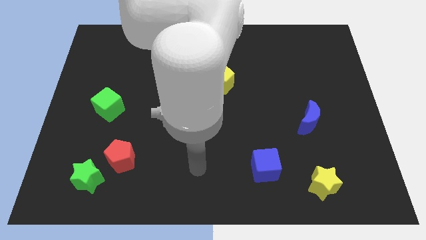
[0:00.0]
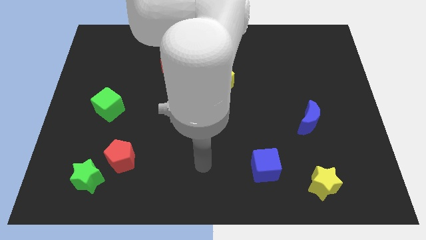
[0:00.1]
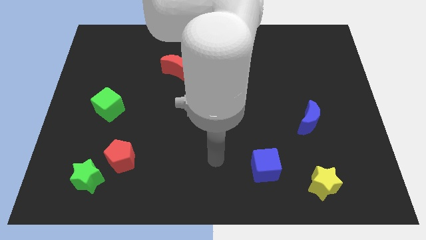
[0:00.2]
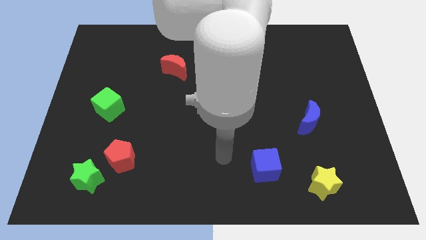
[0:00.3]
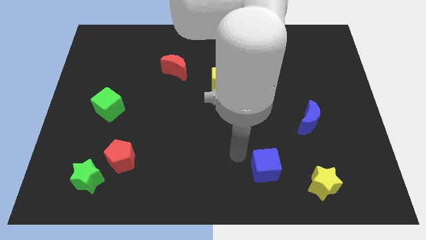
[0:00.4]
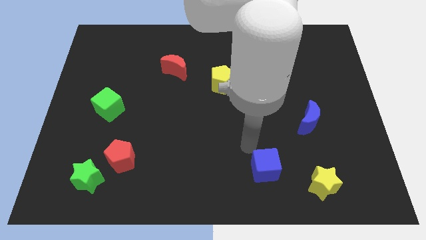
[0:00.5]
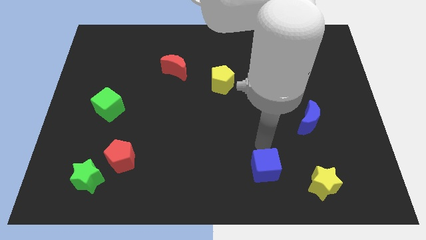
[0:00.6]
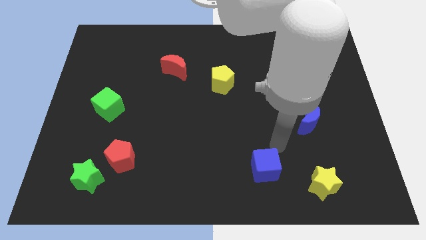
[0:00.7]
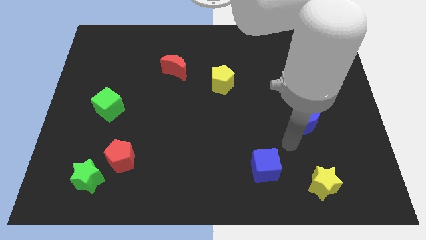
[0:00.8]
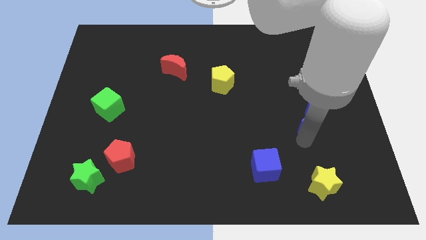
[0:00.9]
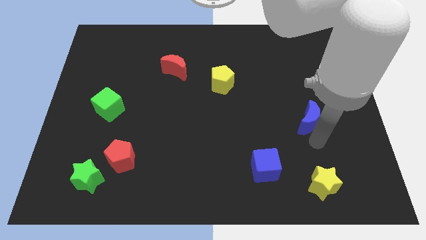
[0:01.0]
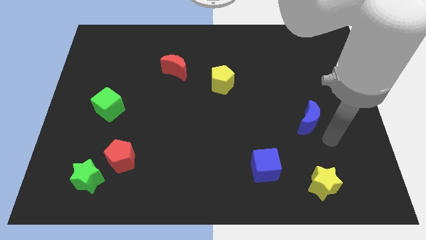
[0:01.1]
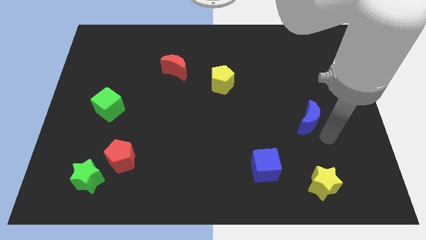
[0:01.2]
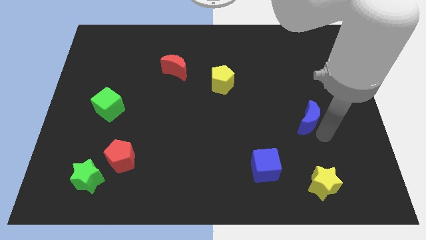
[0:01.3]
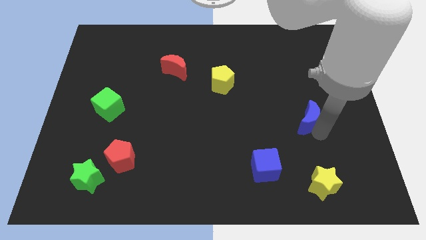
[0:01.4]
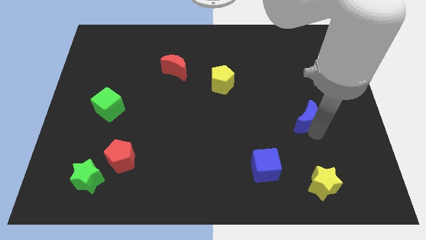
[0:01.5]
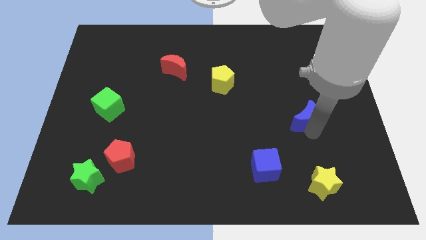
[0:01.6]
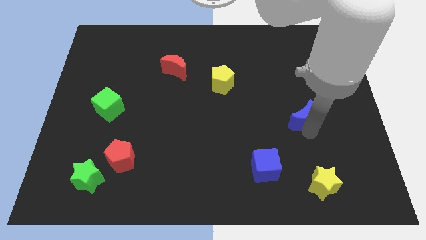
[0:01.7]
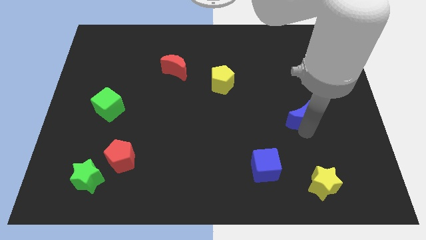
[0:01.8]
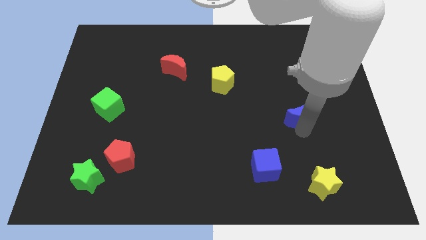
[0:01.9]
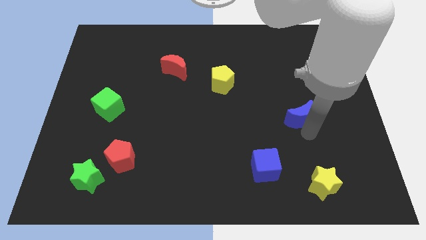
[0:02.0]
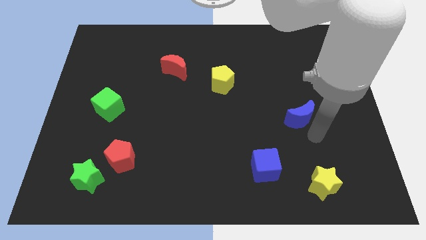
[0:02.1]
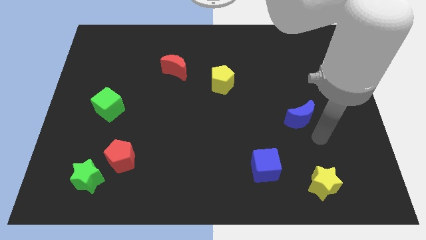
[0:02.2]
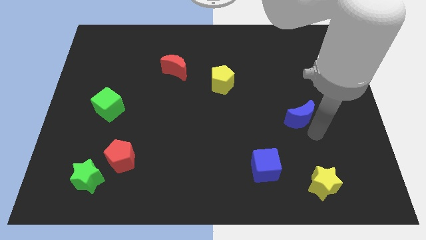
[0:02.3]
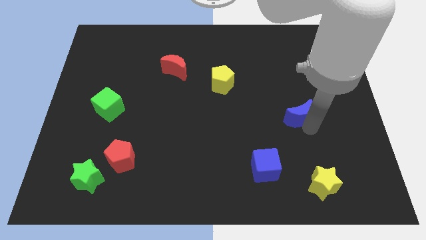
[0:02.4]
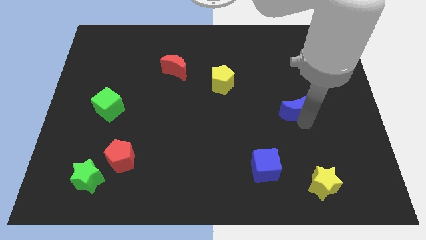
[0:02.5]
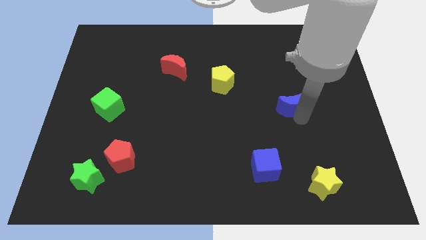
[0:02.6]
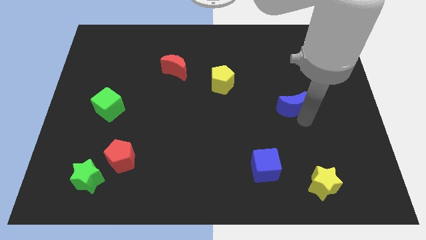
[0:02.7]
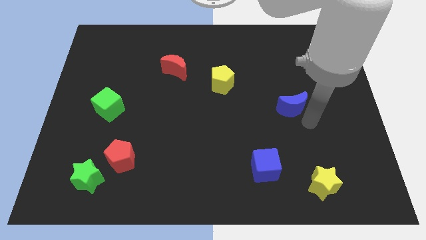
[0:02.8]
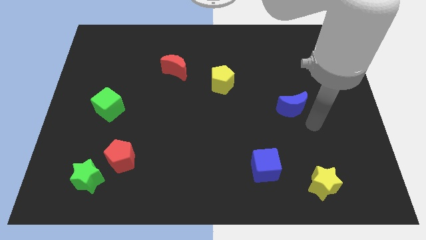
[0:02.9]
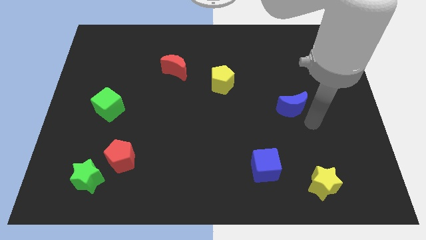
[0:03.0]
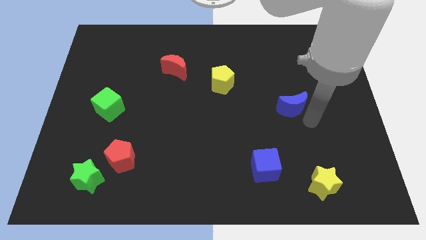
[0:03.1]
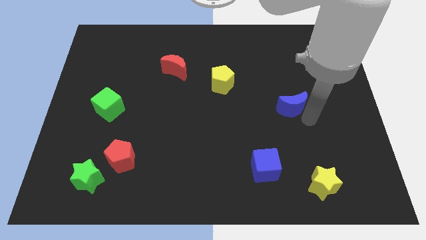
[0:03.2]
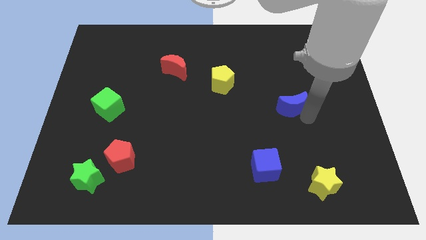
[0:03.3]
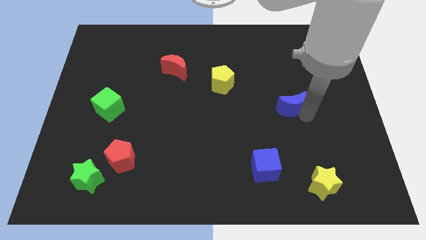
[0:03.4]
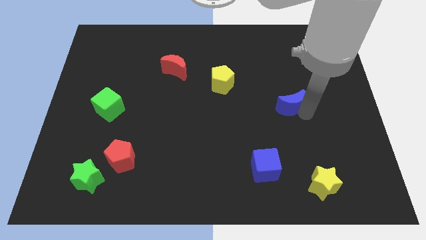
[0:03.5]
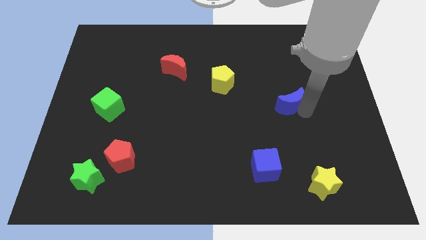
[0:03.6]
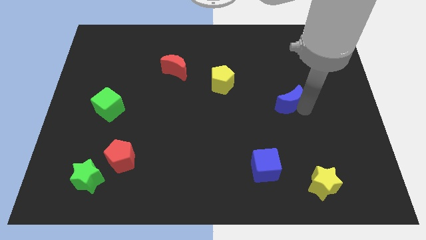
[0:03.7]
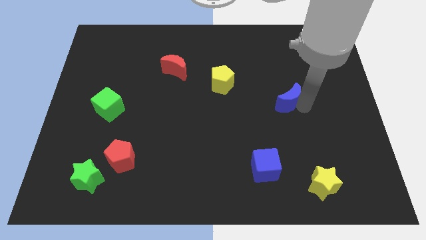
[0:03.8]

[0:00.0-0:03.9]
push the blue moon somewhat up and then left

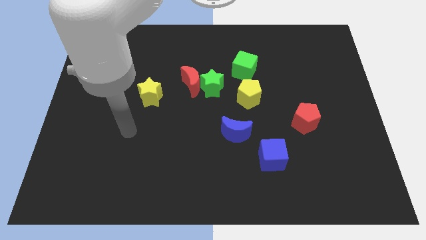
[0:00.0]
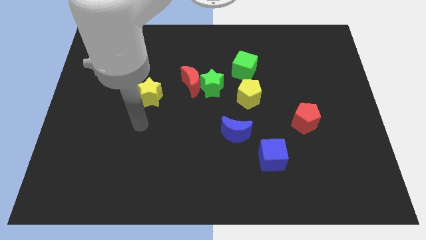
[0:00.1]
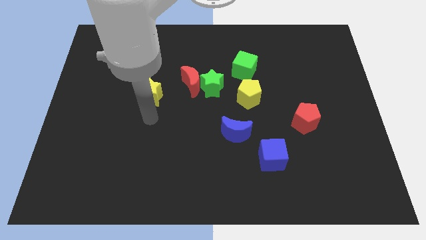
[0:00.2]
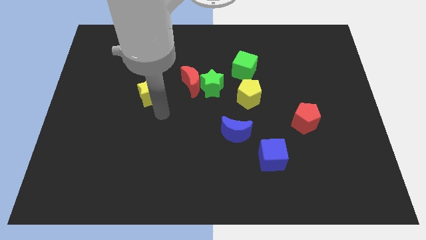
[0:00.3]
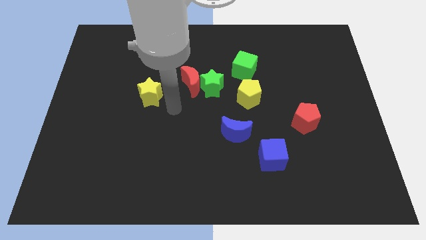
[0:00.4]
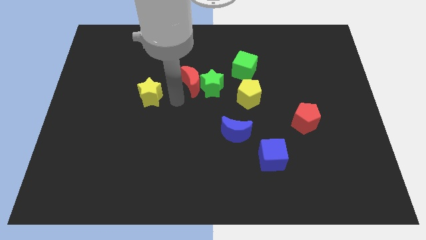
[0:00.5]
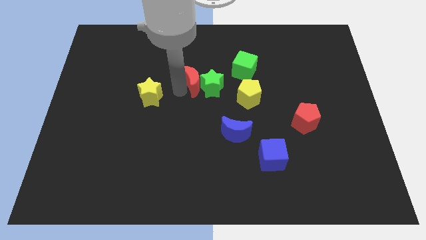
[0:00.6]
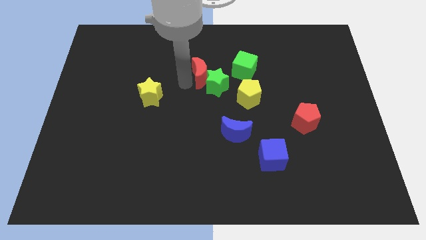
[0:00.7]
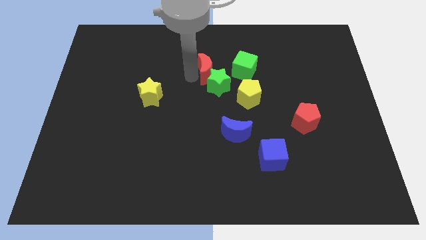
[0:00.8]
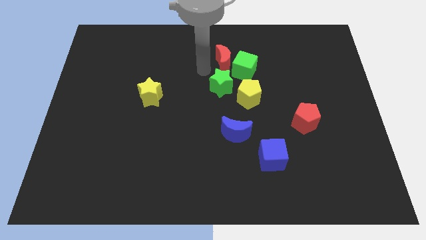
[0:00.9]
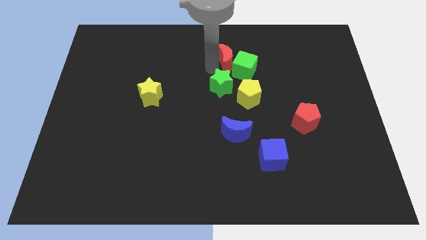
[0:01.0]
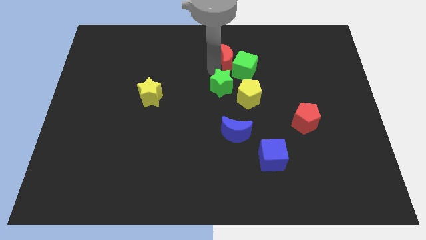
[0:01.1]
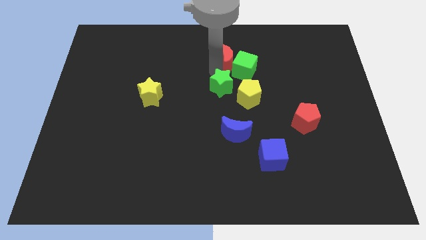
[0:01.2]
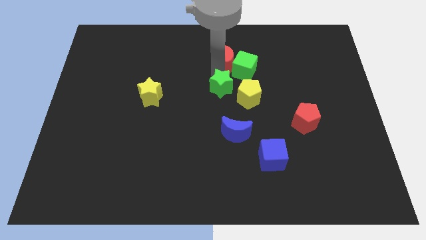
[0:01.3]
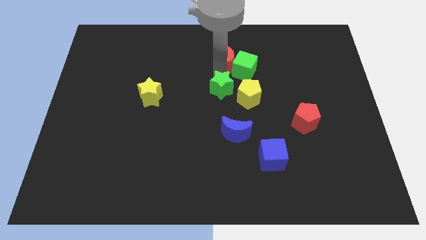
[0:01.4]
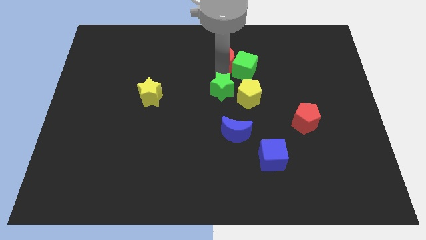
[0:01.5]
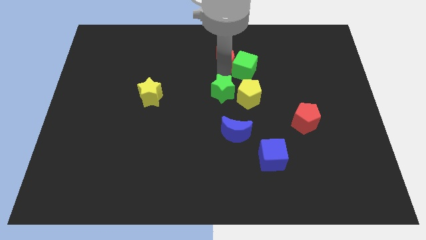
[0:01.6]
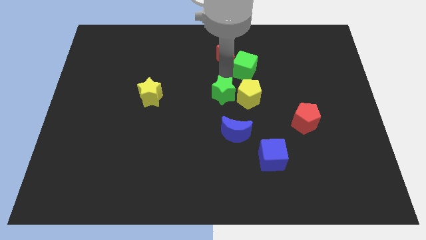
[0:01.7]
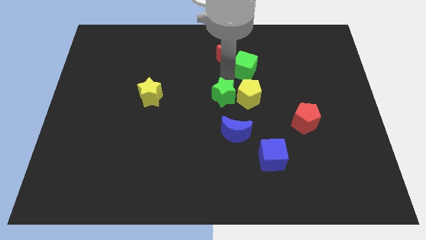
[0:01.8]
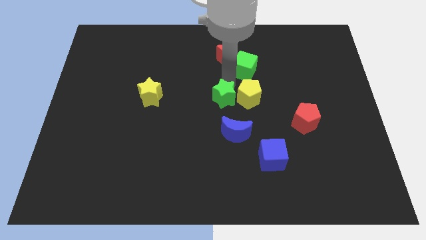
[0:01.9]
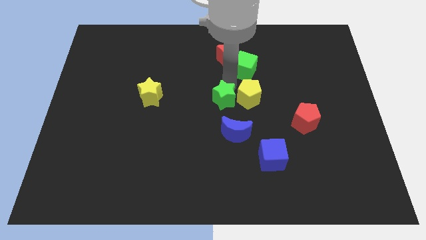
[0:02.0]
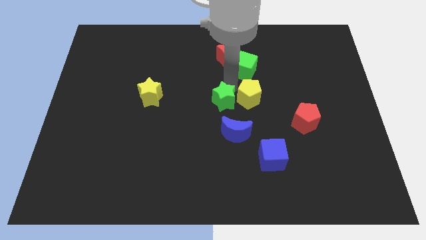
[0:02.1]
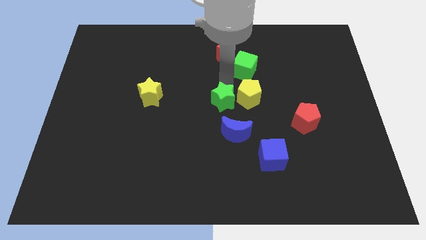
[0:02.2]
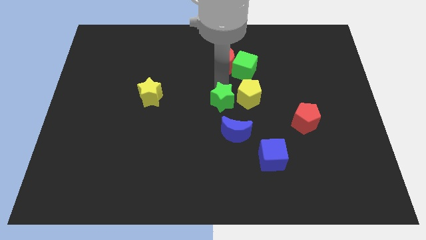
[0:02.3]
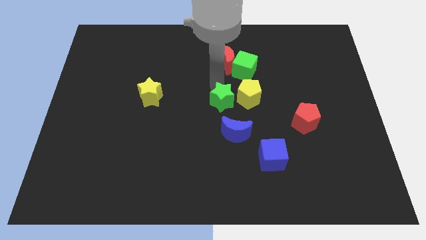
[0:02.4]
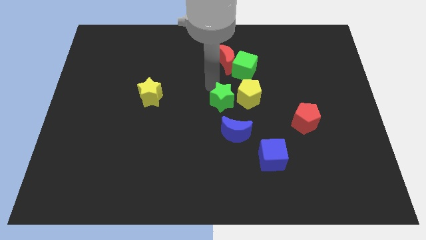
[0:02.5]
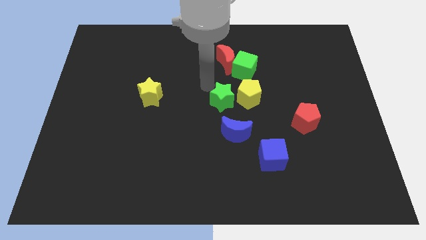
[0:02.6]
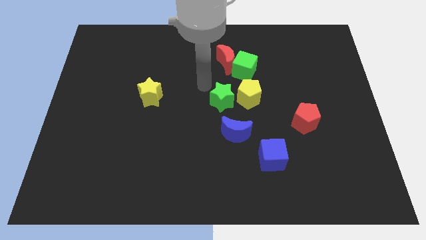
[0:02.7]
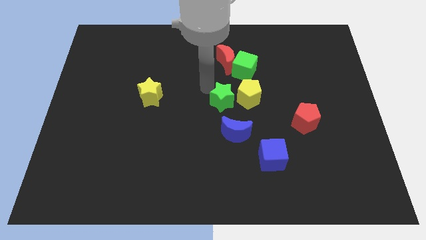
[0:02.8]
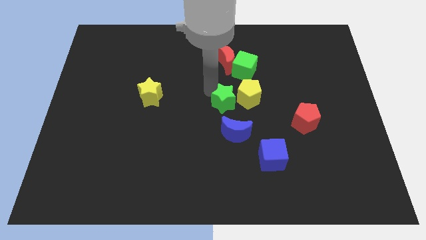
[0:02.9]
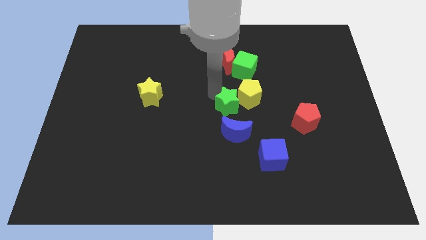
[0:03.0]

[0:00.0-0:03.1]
slightly move the green star diagonally down and to the right

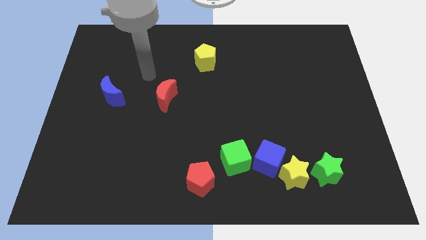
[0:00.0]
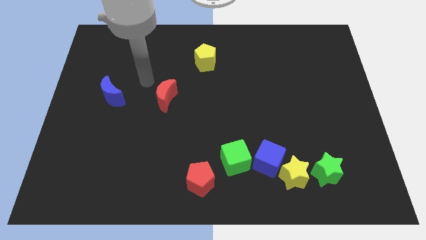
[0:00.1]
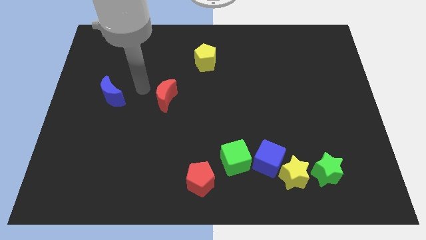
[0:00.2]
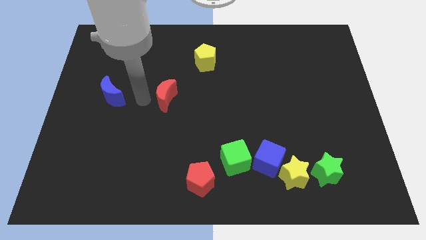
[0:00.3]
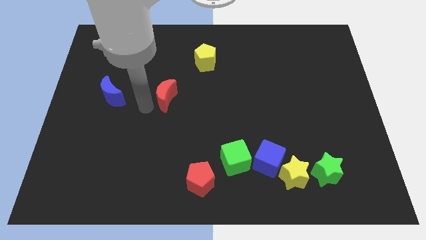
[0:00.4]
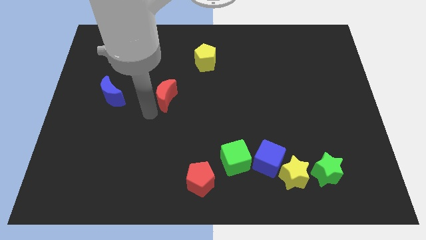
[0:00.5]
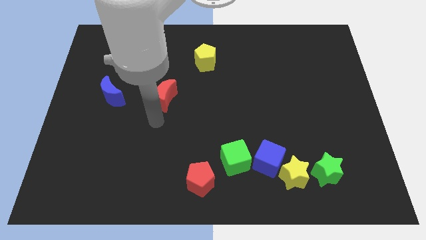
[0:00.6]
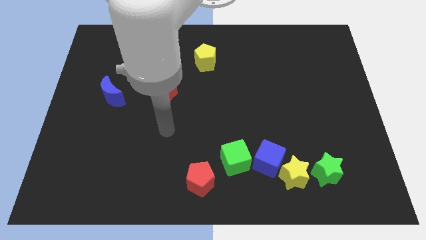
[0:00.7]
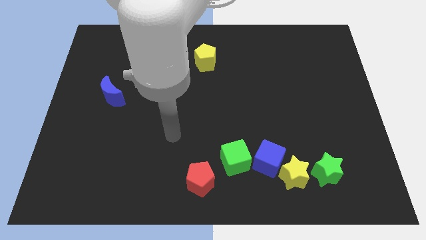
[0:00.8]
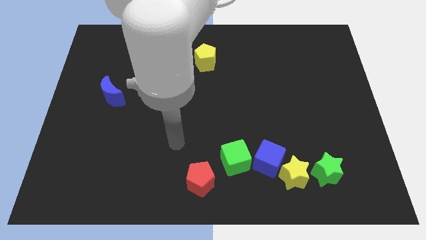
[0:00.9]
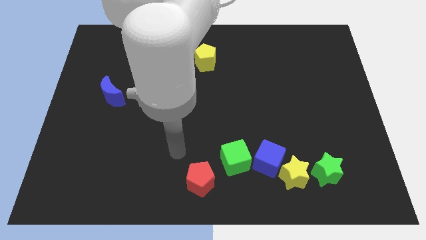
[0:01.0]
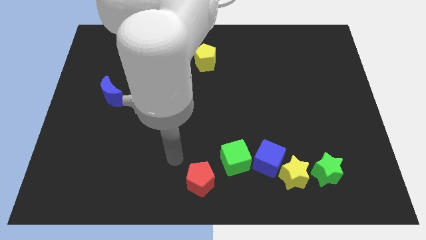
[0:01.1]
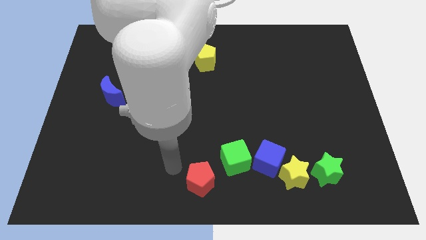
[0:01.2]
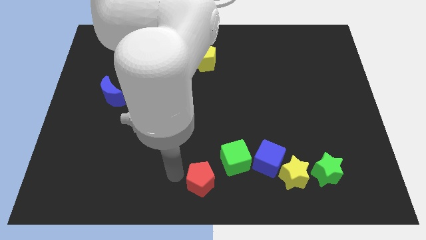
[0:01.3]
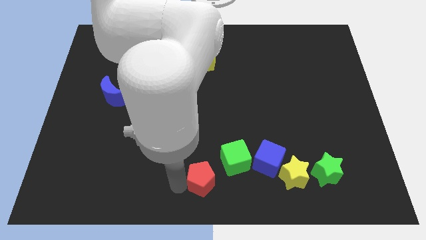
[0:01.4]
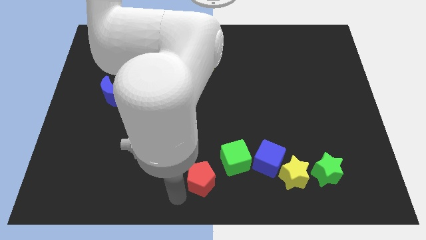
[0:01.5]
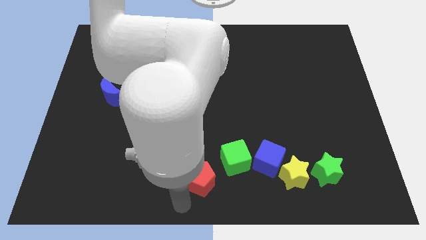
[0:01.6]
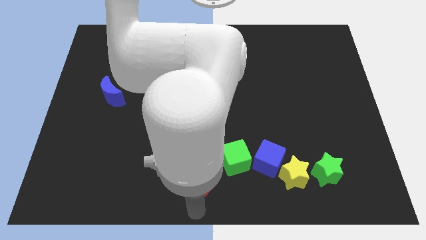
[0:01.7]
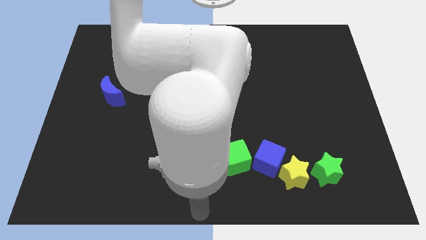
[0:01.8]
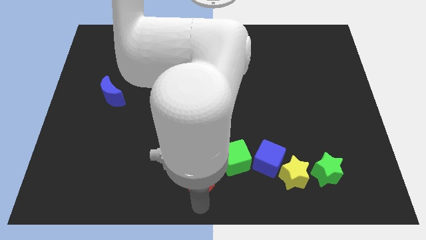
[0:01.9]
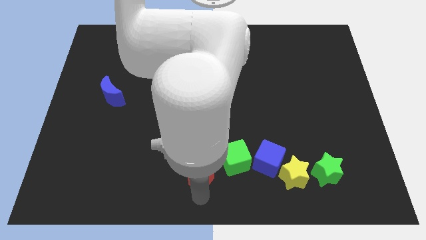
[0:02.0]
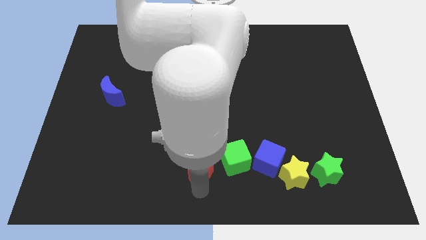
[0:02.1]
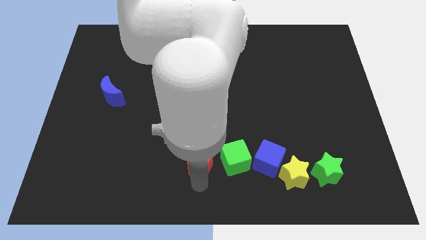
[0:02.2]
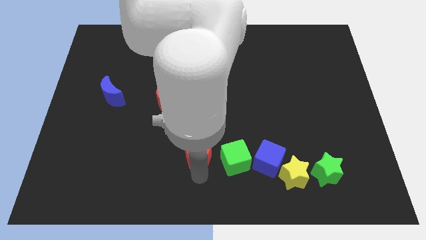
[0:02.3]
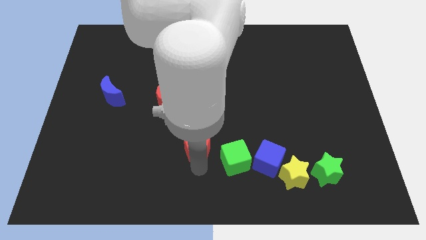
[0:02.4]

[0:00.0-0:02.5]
slightly move the red pentagon upwards
